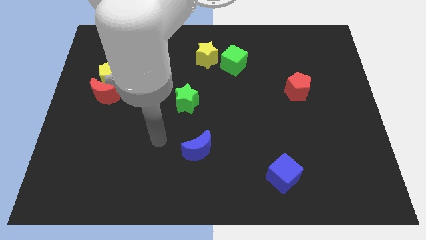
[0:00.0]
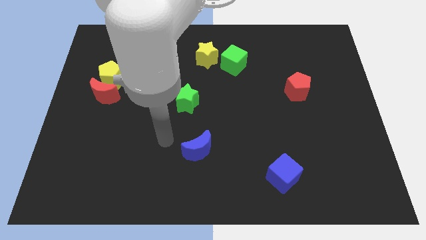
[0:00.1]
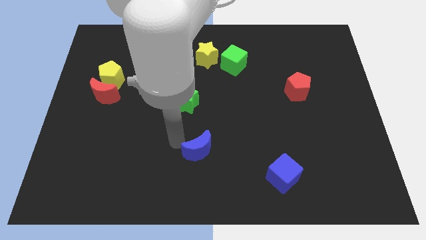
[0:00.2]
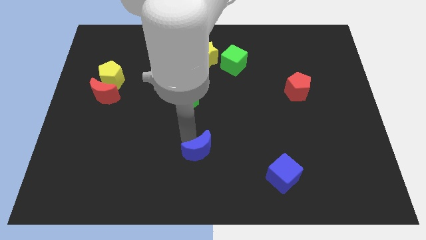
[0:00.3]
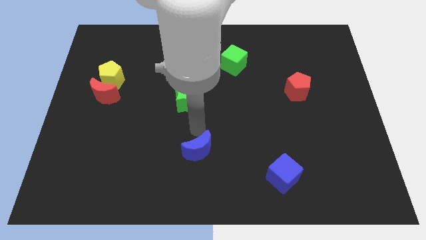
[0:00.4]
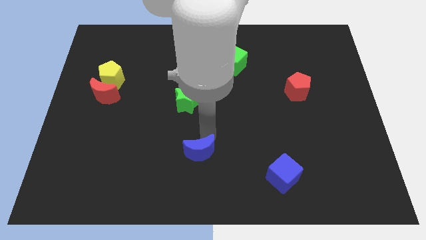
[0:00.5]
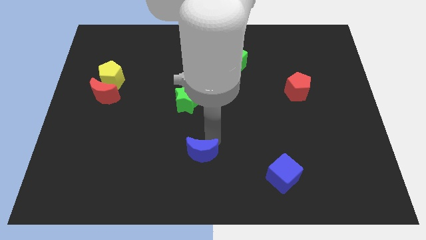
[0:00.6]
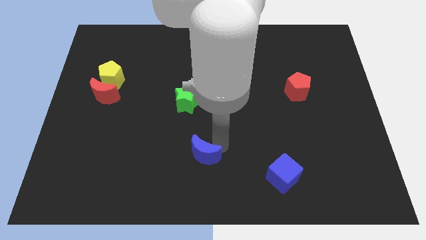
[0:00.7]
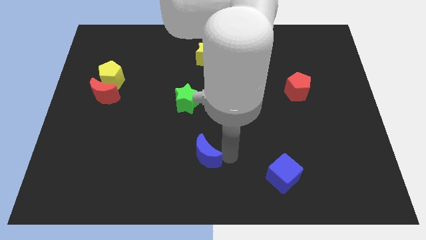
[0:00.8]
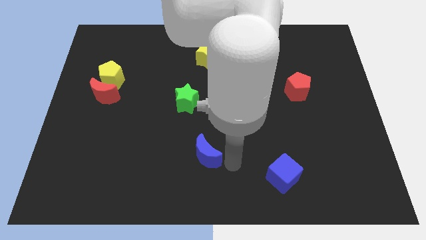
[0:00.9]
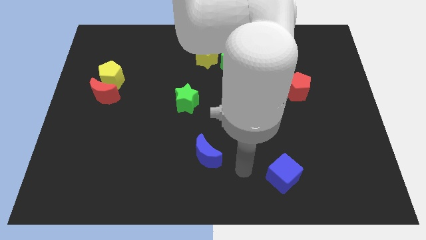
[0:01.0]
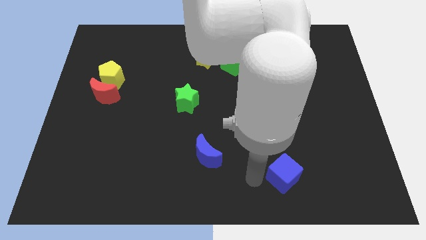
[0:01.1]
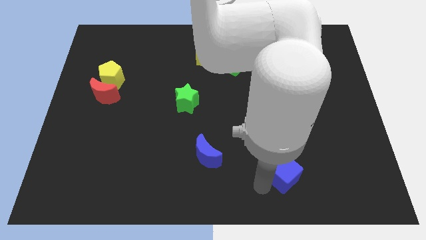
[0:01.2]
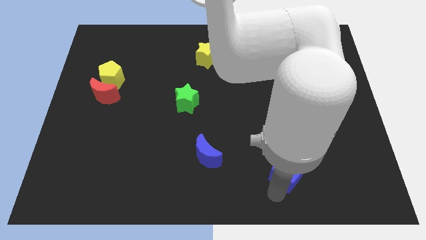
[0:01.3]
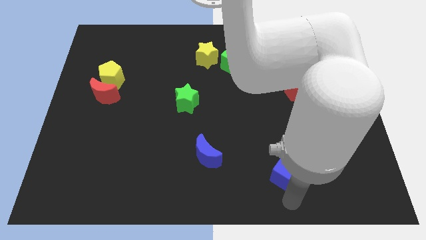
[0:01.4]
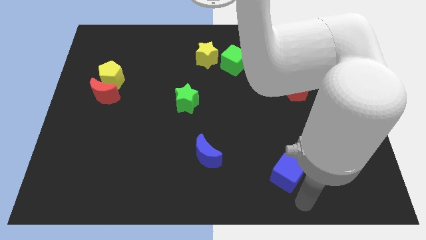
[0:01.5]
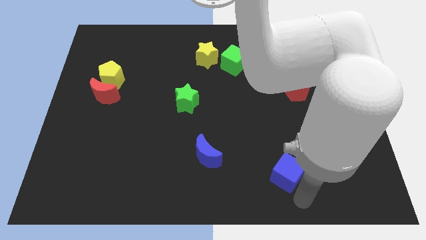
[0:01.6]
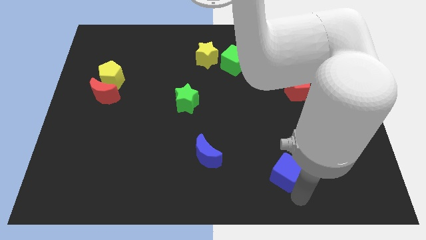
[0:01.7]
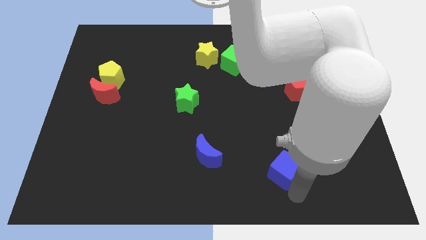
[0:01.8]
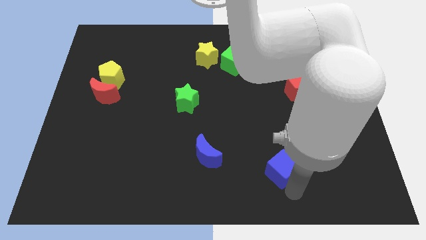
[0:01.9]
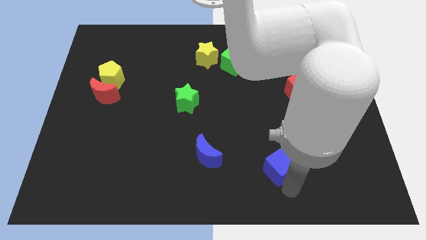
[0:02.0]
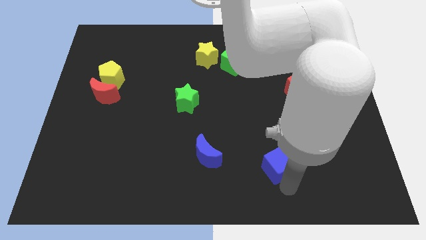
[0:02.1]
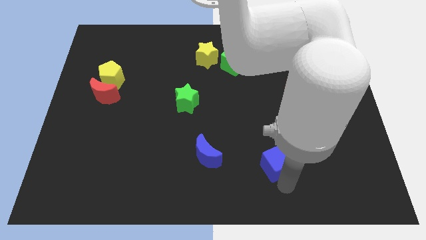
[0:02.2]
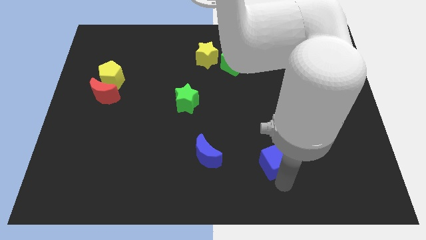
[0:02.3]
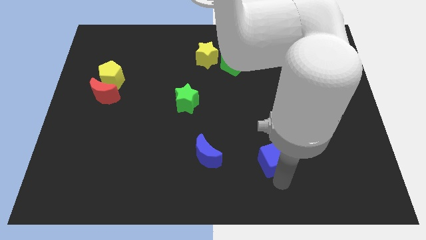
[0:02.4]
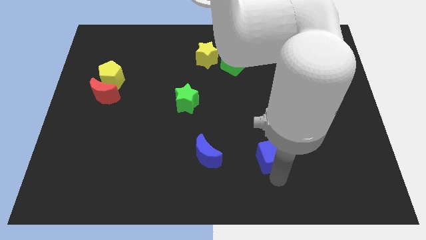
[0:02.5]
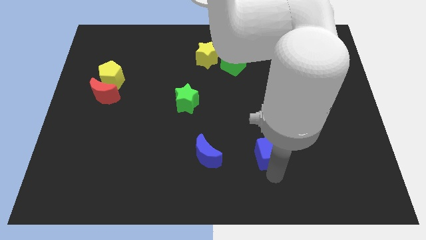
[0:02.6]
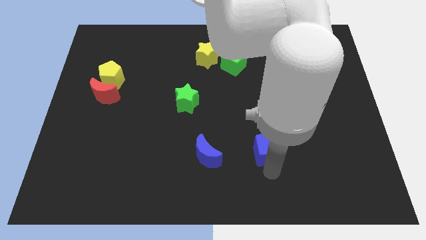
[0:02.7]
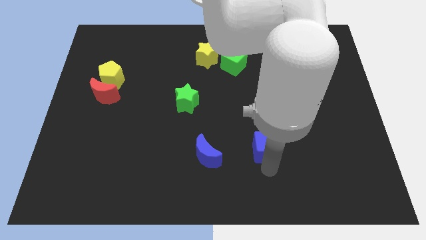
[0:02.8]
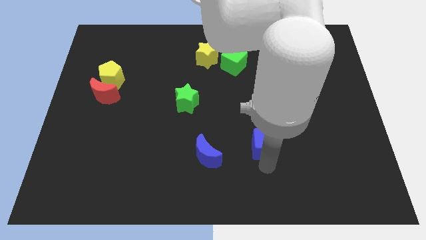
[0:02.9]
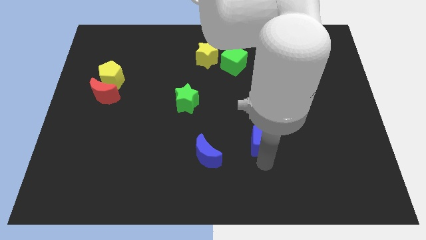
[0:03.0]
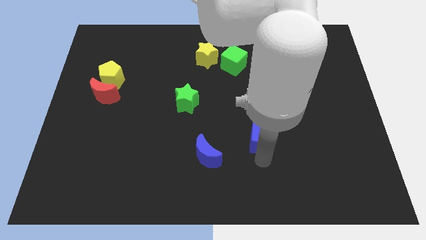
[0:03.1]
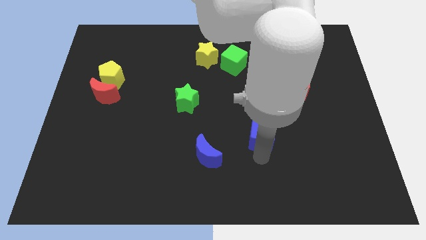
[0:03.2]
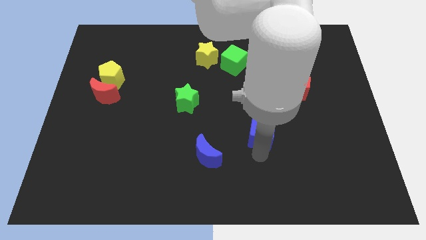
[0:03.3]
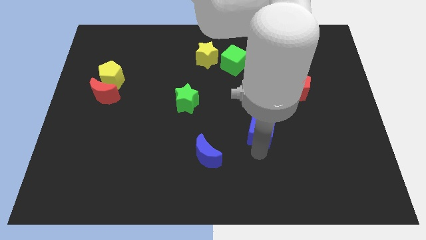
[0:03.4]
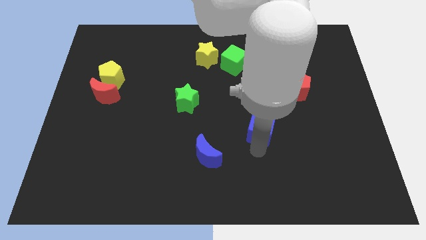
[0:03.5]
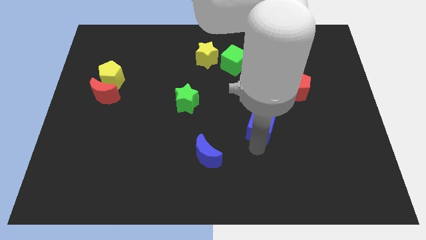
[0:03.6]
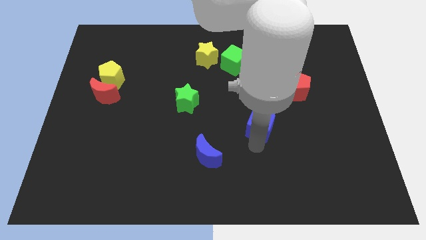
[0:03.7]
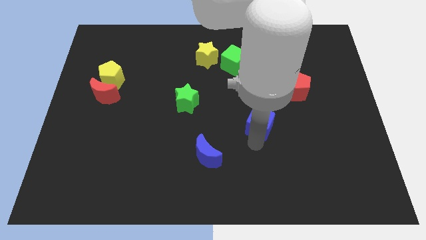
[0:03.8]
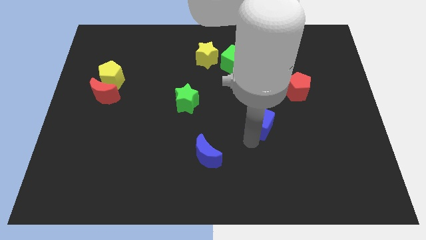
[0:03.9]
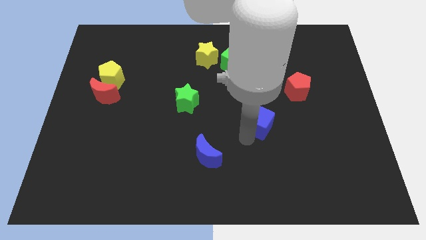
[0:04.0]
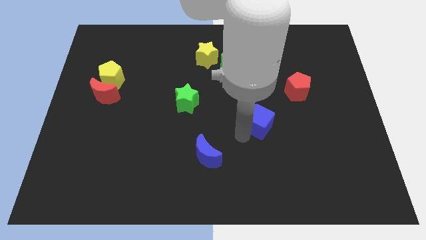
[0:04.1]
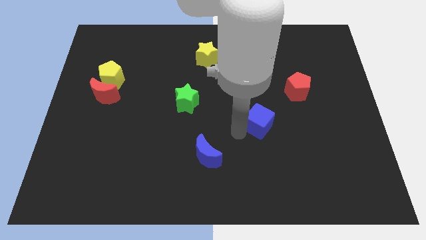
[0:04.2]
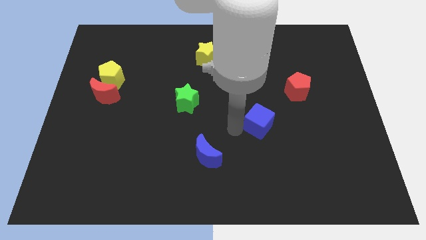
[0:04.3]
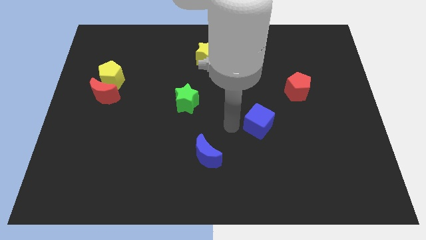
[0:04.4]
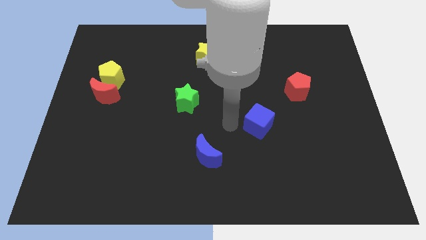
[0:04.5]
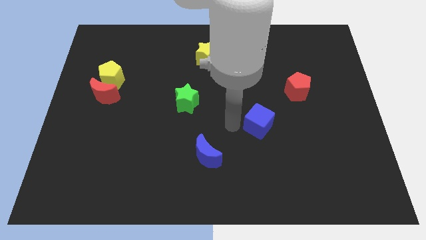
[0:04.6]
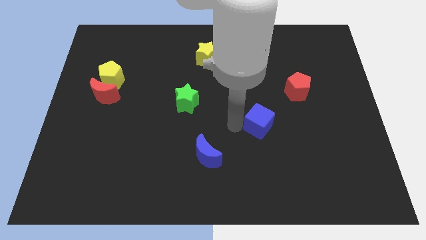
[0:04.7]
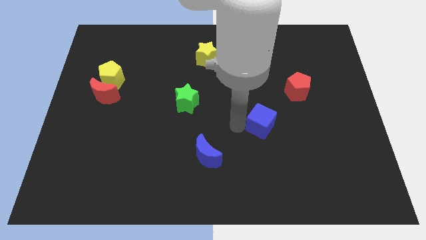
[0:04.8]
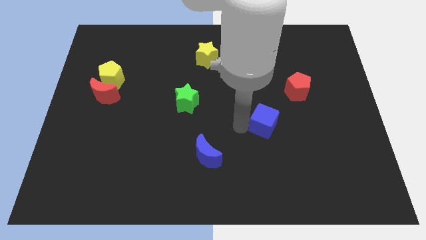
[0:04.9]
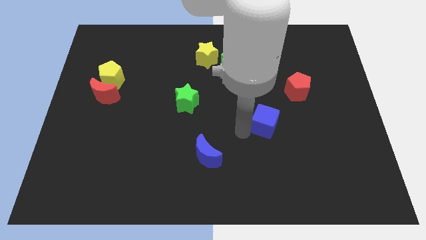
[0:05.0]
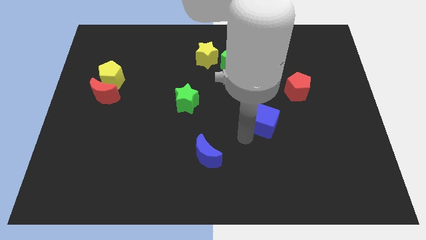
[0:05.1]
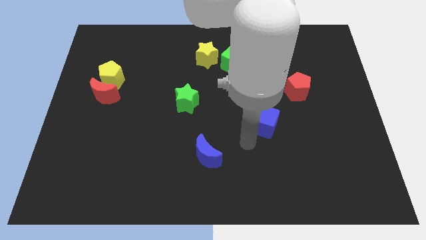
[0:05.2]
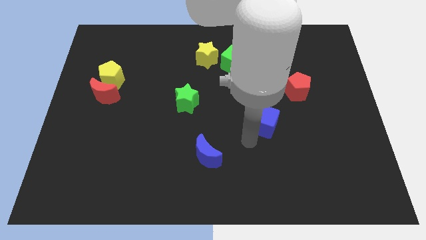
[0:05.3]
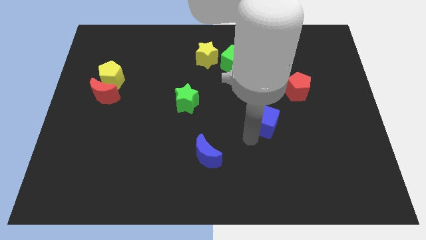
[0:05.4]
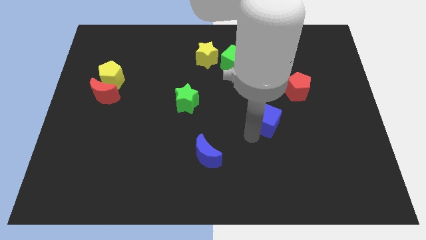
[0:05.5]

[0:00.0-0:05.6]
slide the blue cube to the bottom left of the red pentagon

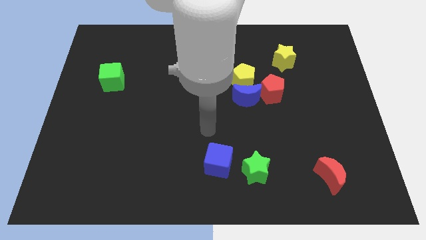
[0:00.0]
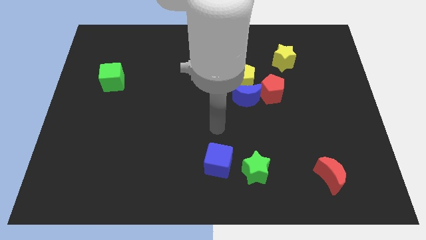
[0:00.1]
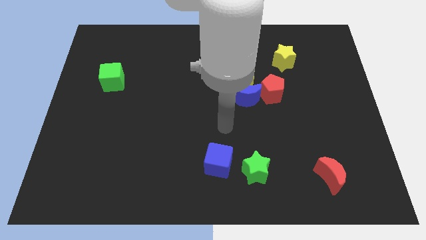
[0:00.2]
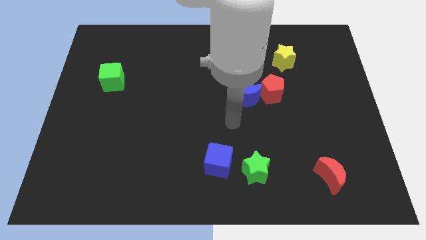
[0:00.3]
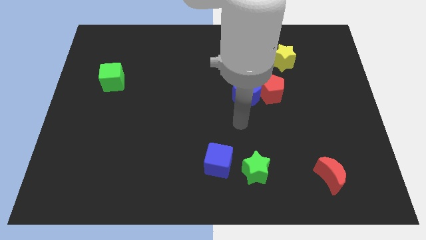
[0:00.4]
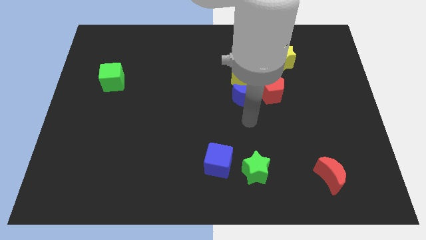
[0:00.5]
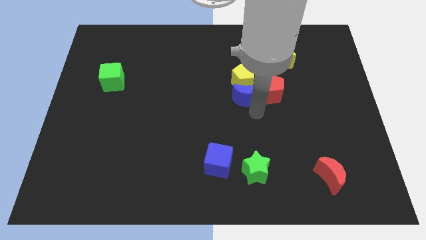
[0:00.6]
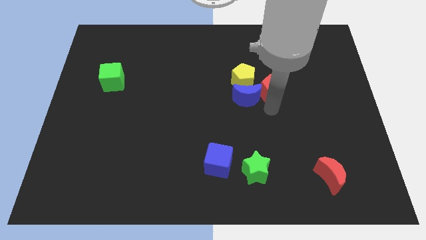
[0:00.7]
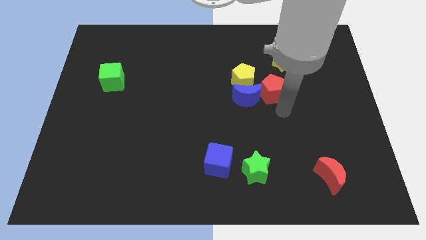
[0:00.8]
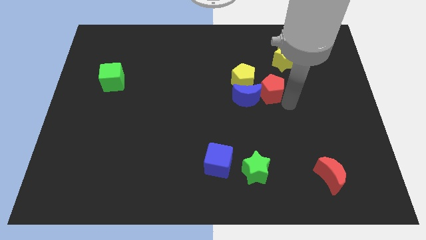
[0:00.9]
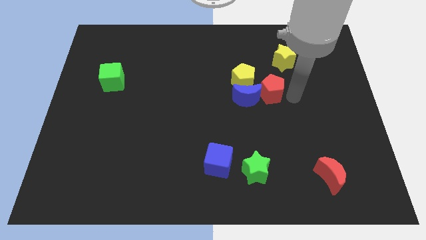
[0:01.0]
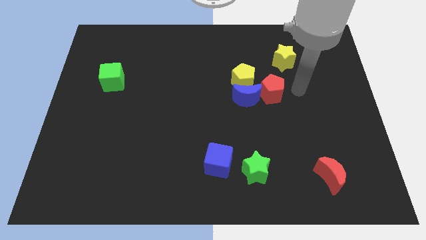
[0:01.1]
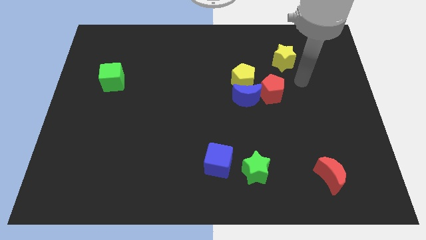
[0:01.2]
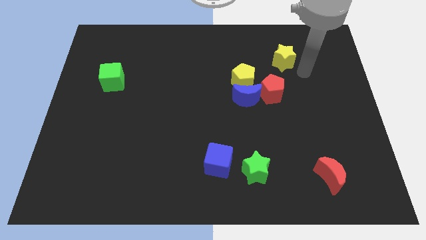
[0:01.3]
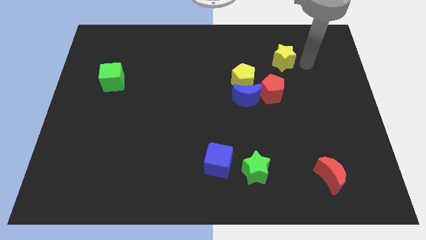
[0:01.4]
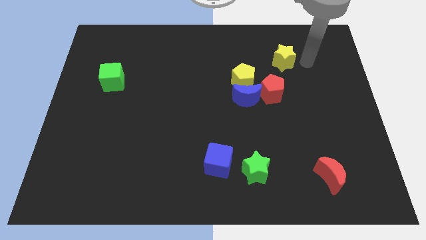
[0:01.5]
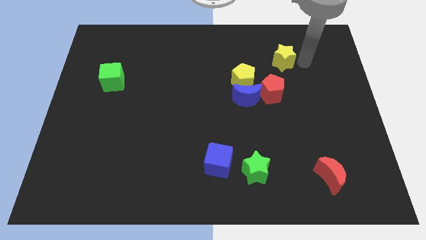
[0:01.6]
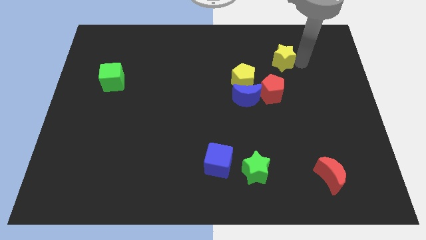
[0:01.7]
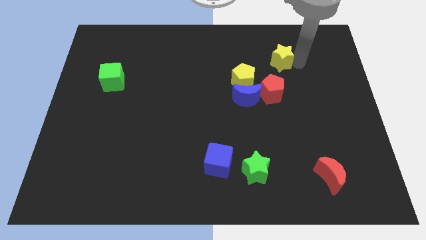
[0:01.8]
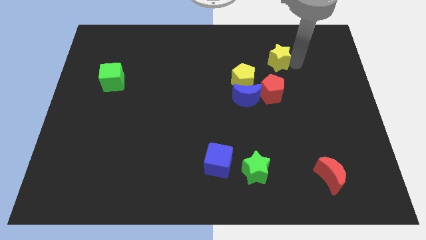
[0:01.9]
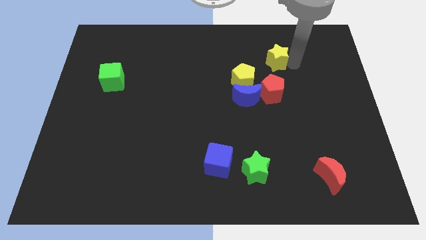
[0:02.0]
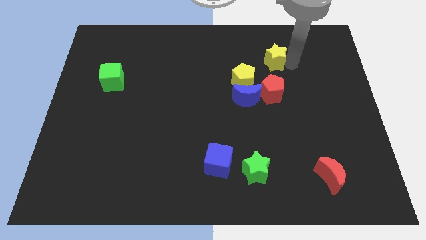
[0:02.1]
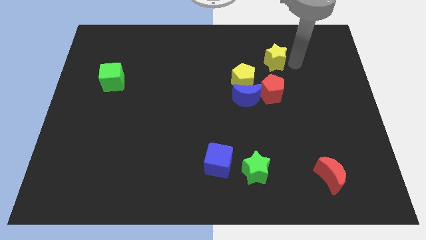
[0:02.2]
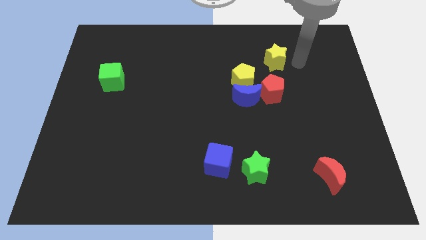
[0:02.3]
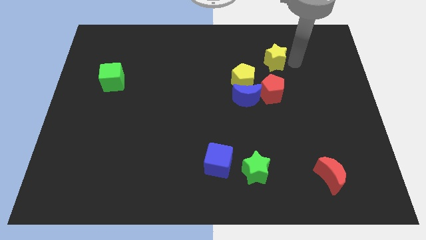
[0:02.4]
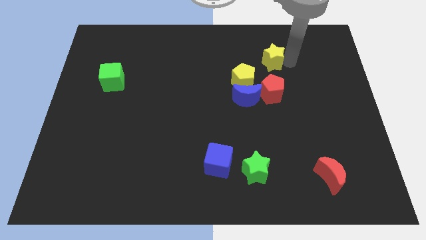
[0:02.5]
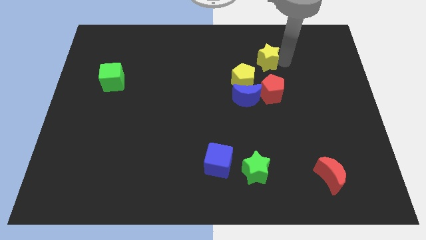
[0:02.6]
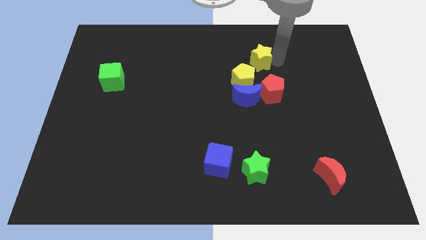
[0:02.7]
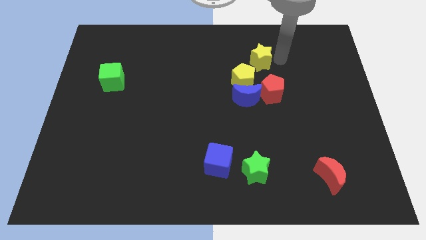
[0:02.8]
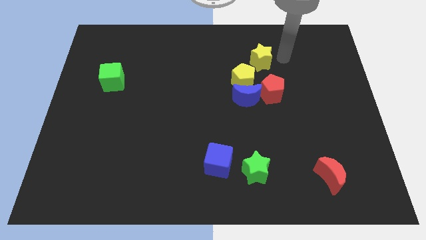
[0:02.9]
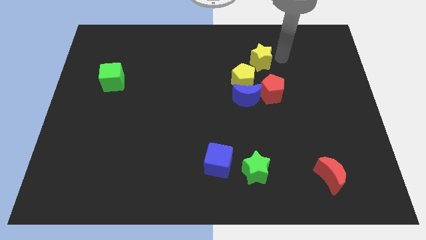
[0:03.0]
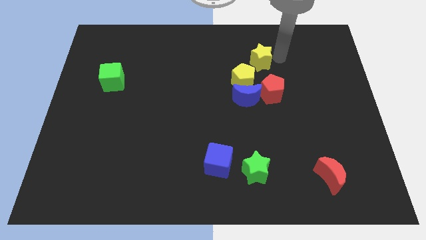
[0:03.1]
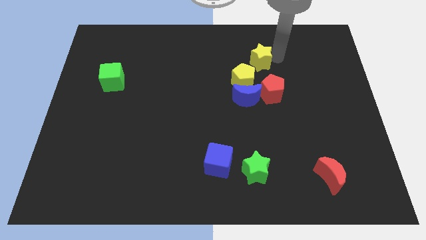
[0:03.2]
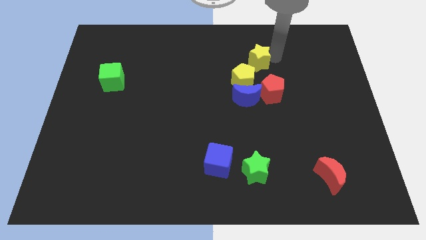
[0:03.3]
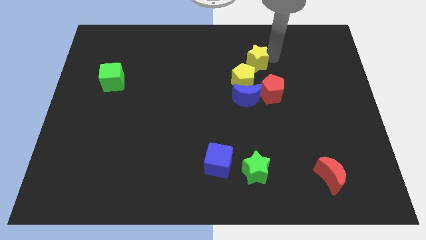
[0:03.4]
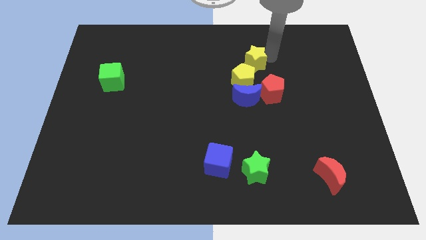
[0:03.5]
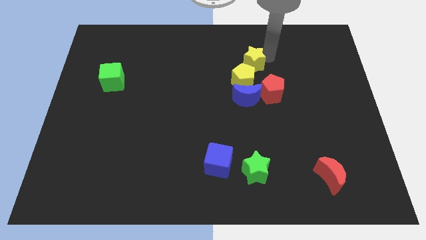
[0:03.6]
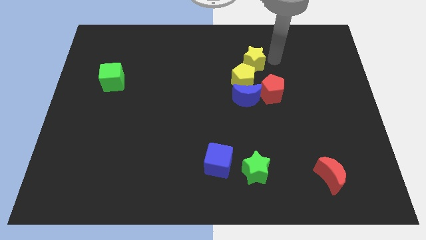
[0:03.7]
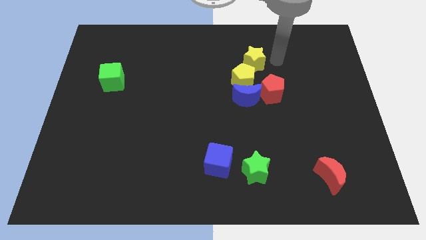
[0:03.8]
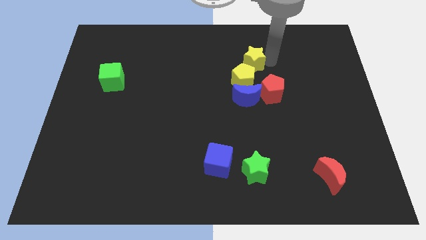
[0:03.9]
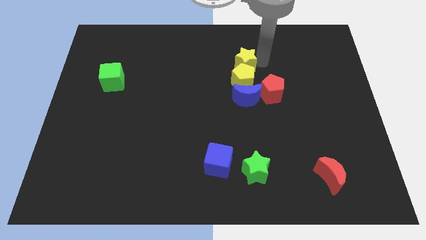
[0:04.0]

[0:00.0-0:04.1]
move the yellow star diagonally up and to the left of the yellow pentagon
